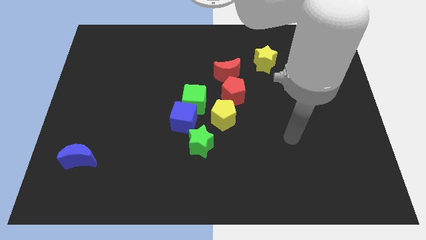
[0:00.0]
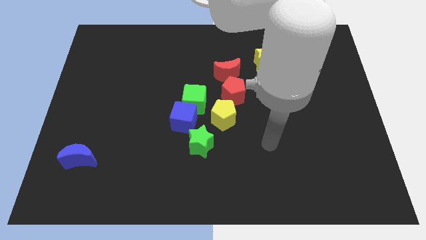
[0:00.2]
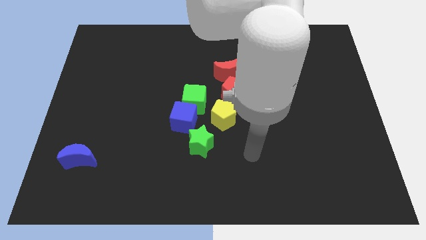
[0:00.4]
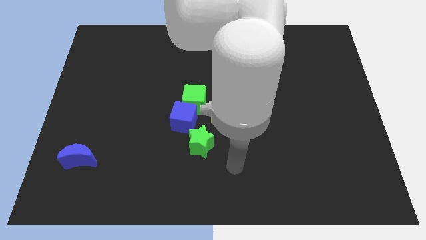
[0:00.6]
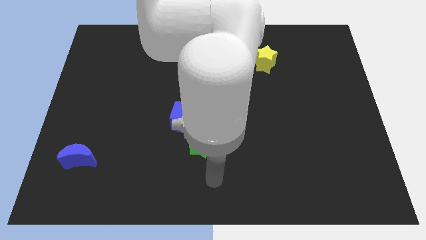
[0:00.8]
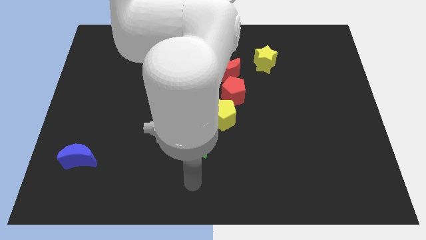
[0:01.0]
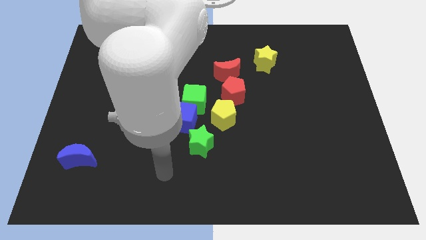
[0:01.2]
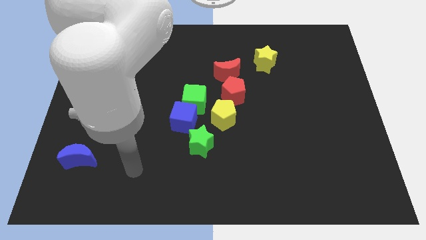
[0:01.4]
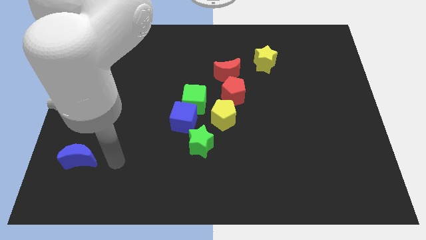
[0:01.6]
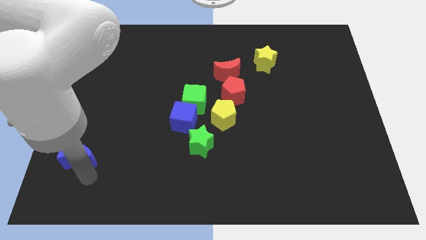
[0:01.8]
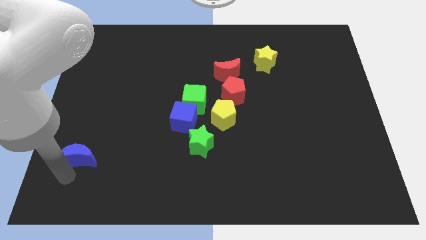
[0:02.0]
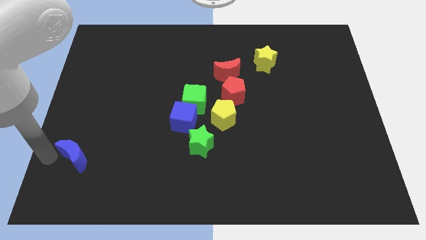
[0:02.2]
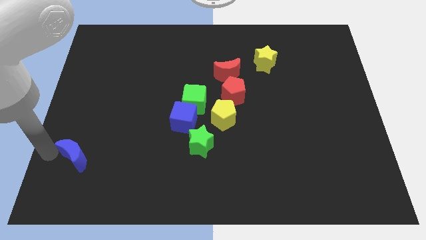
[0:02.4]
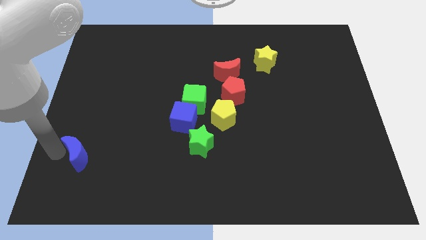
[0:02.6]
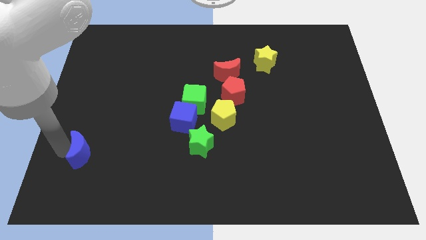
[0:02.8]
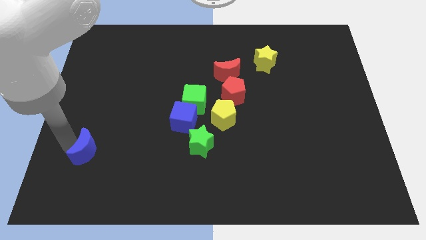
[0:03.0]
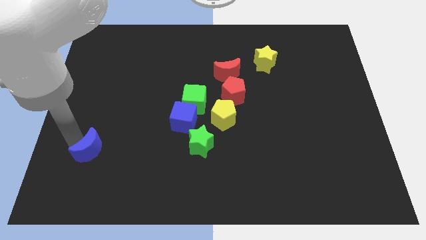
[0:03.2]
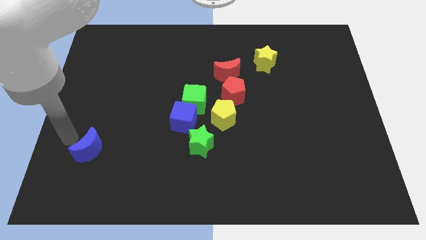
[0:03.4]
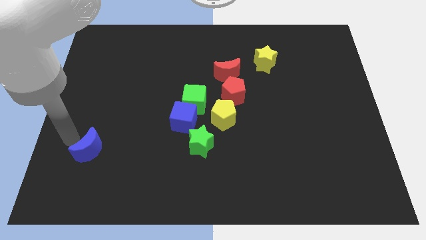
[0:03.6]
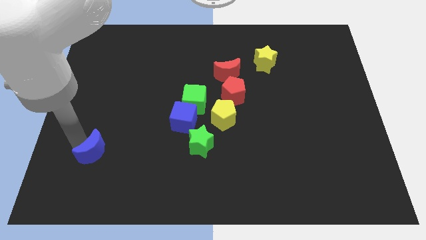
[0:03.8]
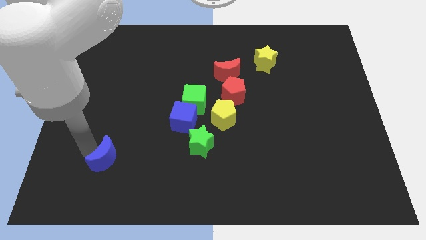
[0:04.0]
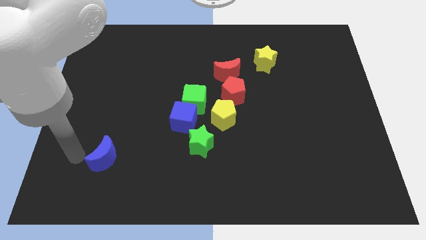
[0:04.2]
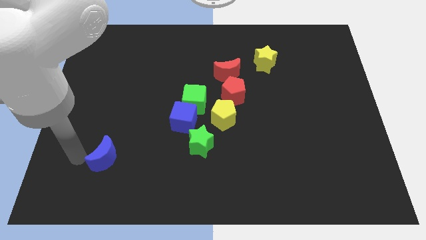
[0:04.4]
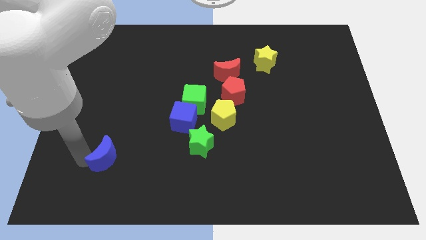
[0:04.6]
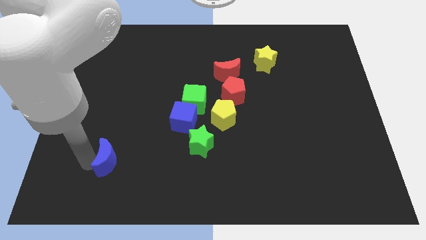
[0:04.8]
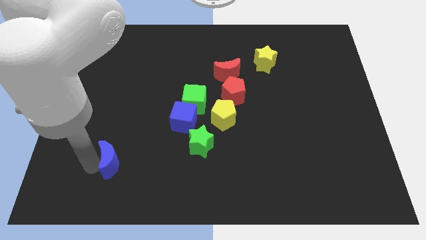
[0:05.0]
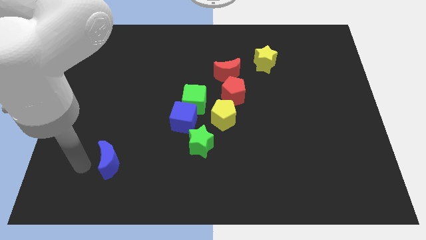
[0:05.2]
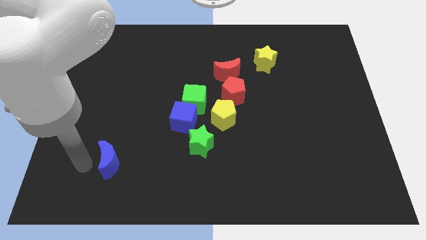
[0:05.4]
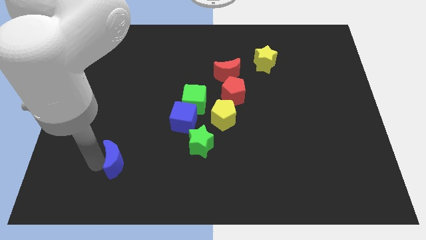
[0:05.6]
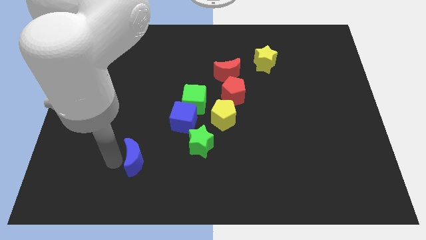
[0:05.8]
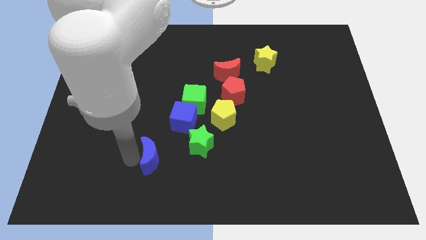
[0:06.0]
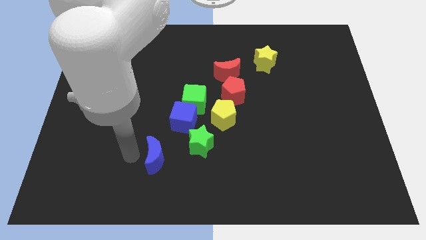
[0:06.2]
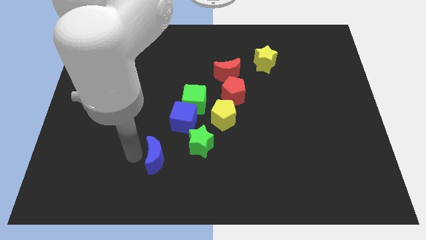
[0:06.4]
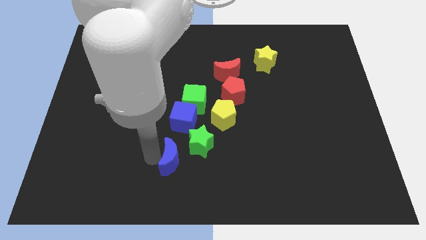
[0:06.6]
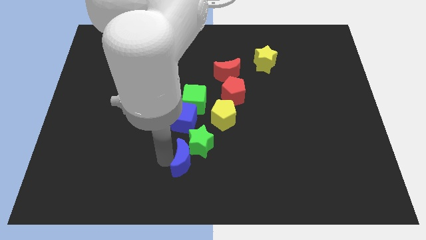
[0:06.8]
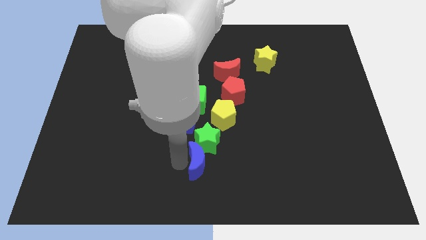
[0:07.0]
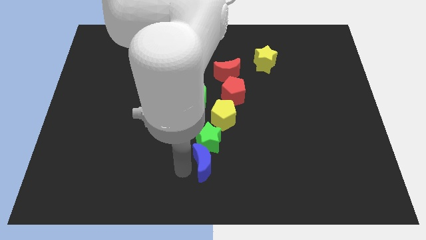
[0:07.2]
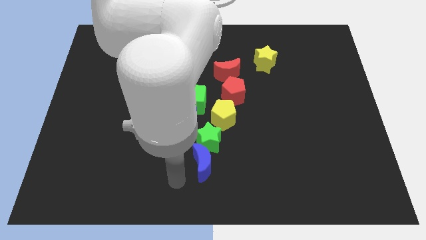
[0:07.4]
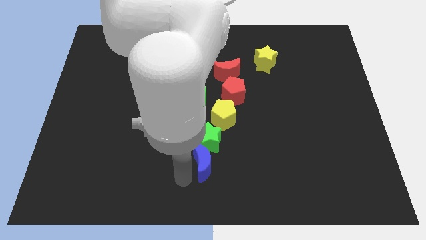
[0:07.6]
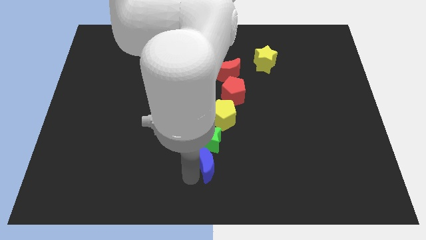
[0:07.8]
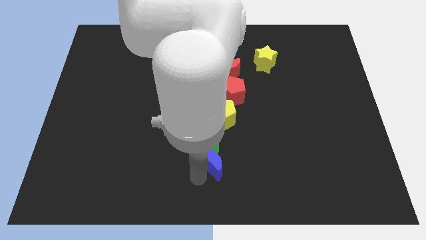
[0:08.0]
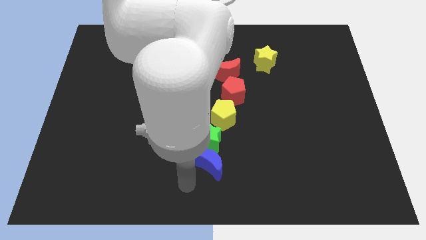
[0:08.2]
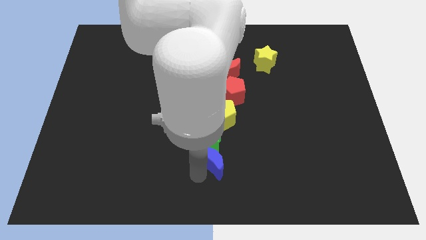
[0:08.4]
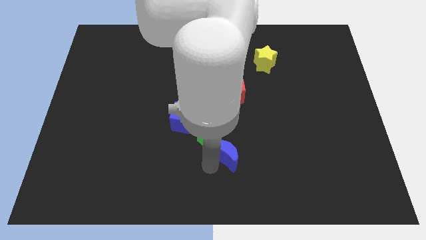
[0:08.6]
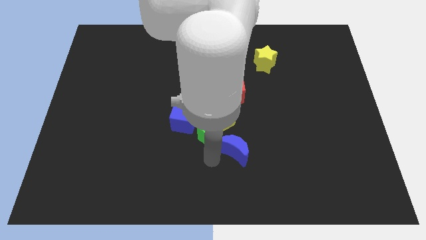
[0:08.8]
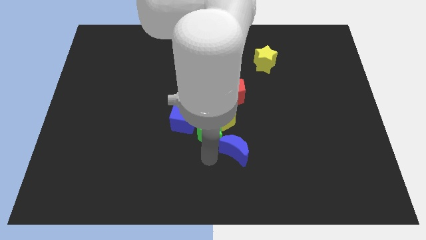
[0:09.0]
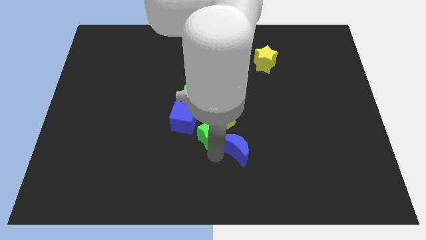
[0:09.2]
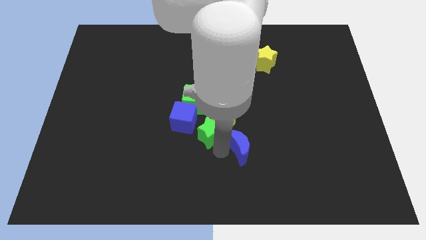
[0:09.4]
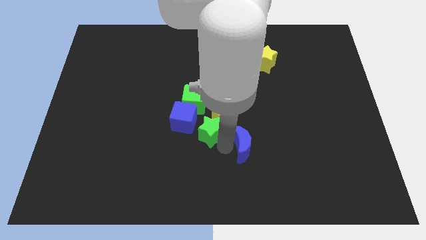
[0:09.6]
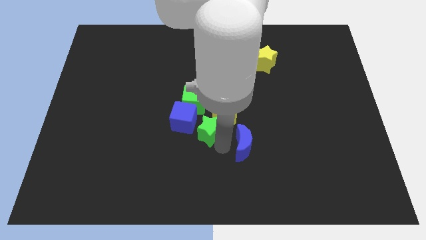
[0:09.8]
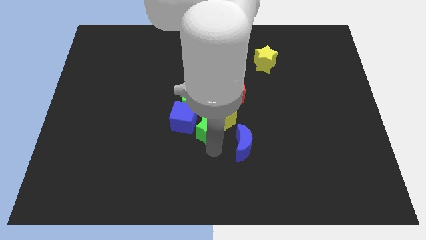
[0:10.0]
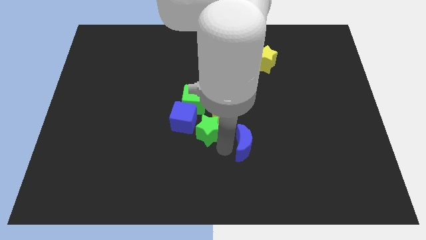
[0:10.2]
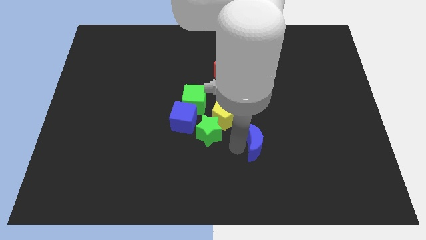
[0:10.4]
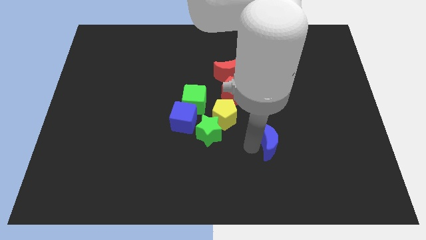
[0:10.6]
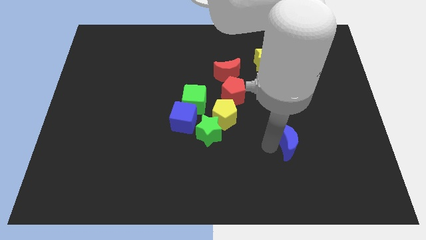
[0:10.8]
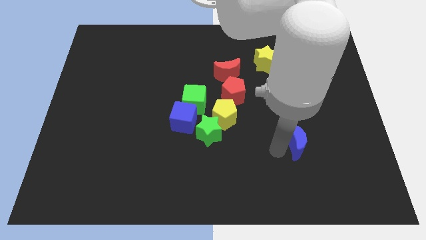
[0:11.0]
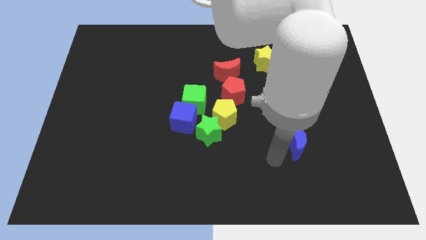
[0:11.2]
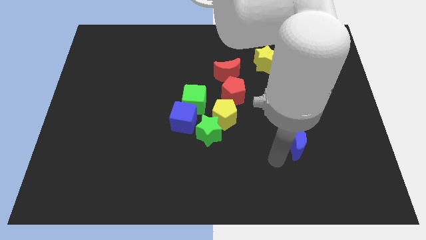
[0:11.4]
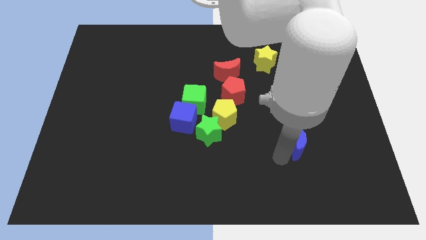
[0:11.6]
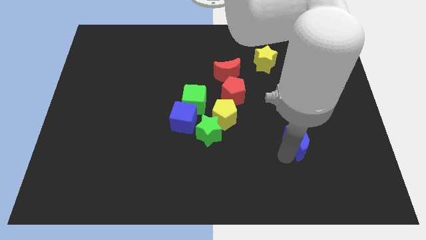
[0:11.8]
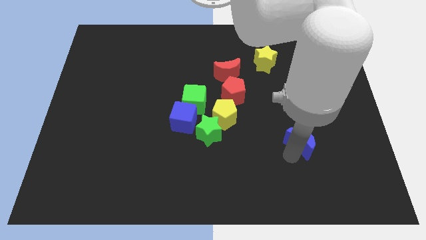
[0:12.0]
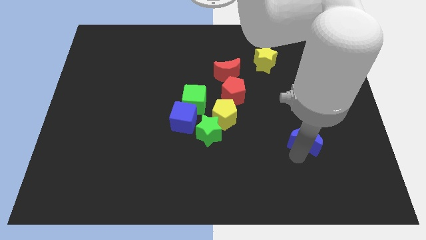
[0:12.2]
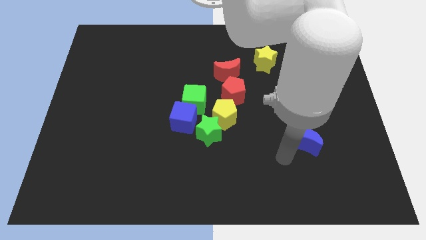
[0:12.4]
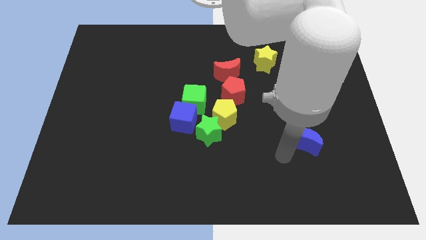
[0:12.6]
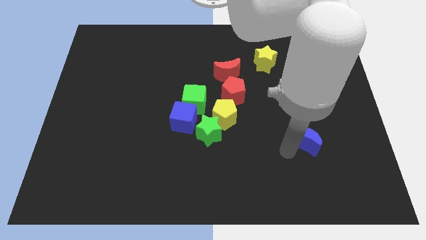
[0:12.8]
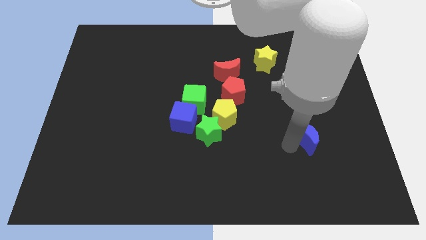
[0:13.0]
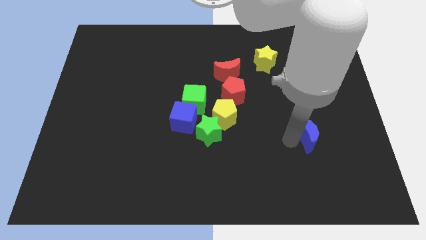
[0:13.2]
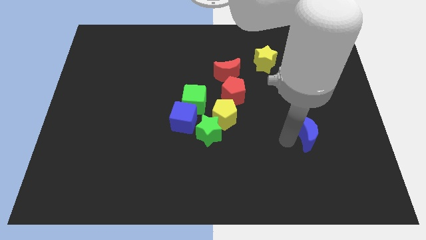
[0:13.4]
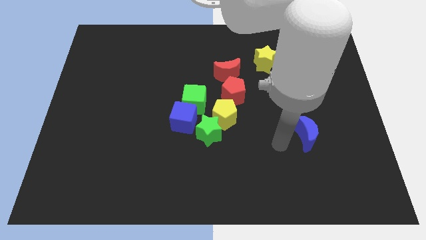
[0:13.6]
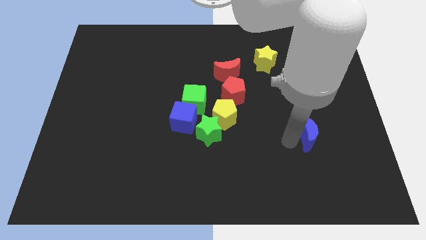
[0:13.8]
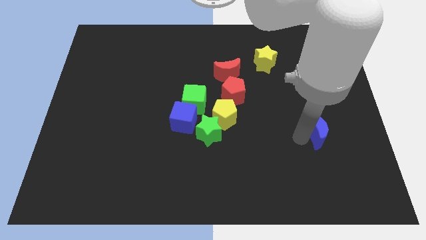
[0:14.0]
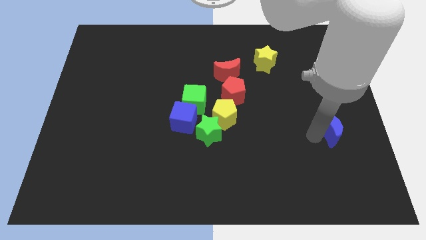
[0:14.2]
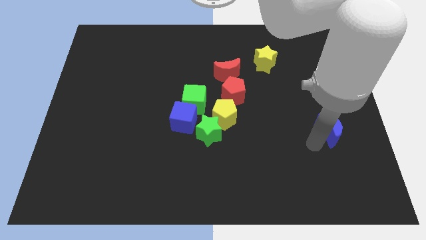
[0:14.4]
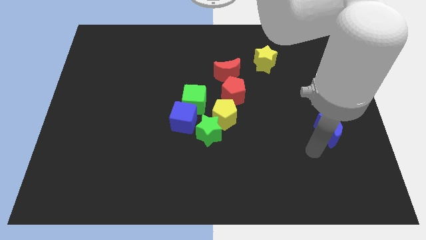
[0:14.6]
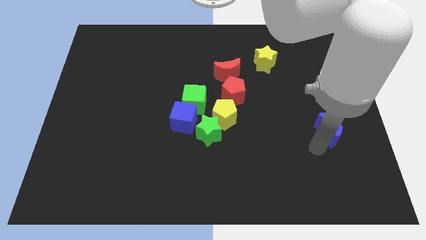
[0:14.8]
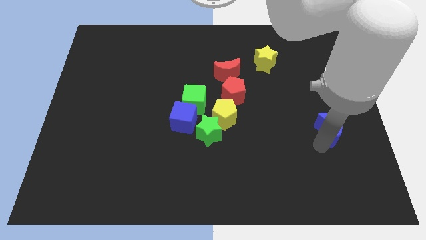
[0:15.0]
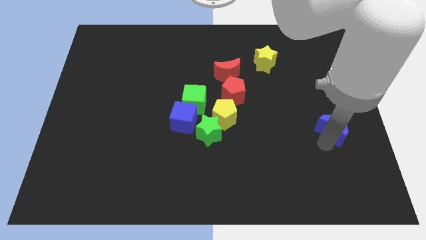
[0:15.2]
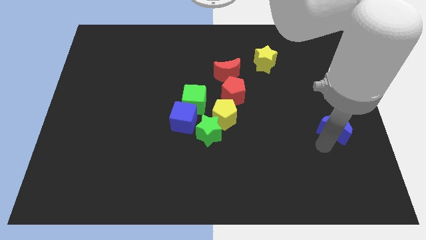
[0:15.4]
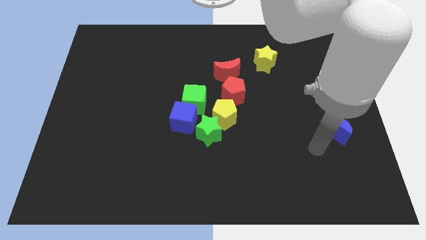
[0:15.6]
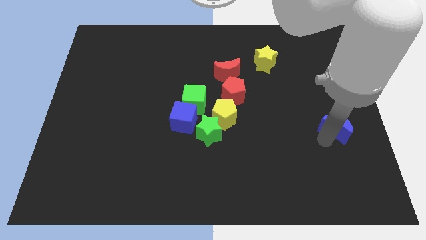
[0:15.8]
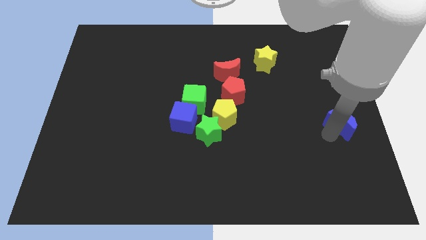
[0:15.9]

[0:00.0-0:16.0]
slide the blue moon to the right side
